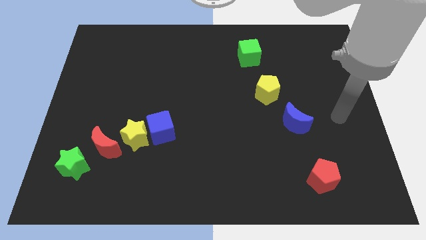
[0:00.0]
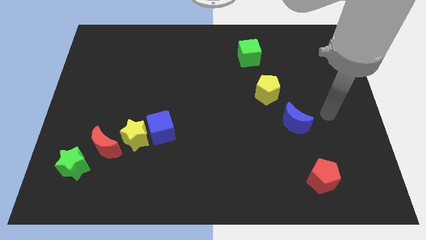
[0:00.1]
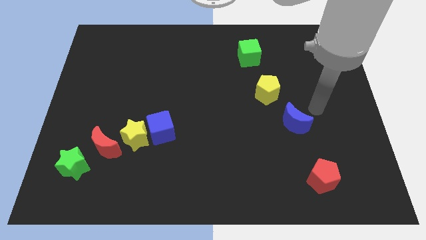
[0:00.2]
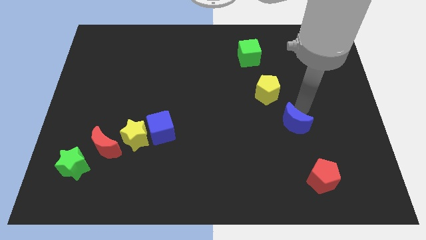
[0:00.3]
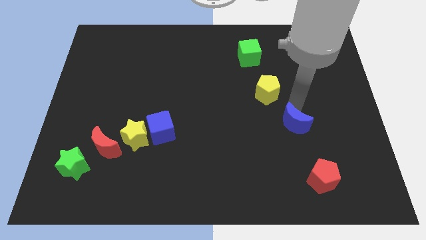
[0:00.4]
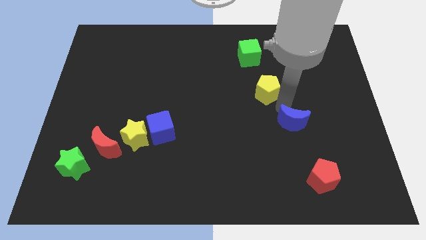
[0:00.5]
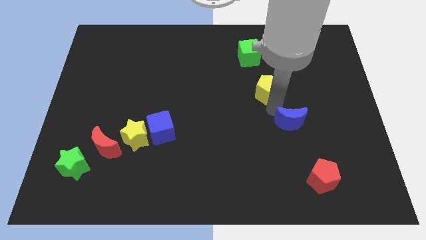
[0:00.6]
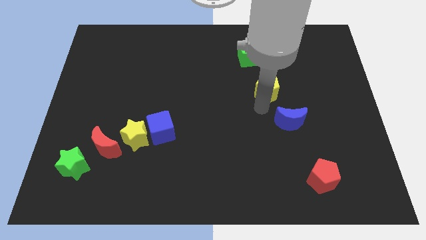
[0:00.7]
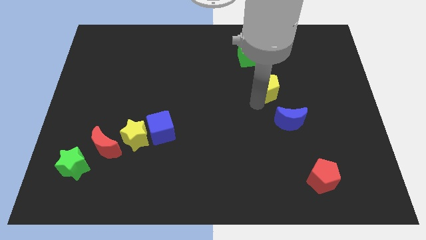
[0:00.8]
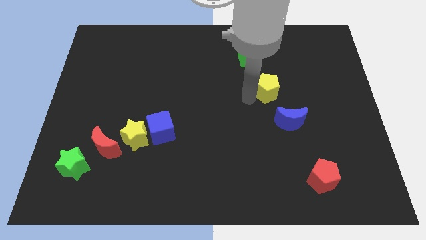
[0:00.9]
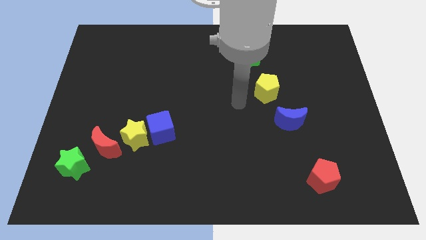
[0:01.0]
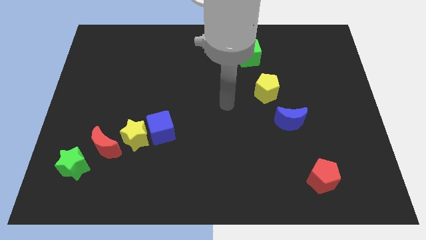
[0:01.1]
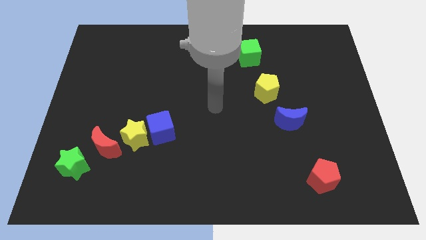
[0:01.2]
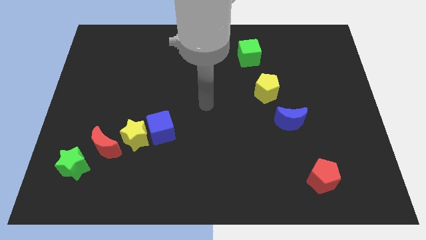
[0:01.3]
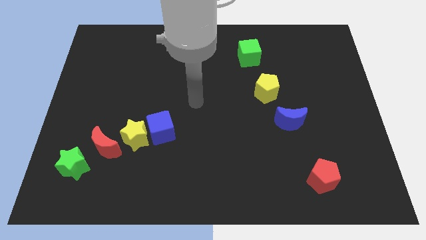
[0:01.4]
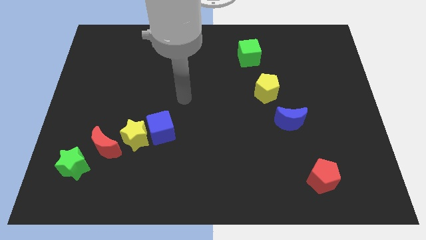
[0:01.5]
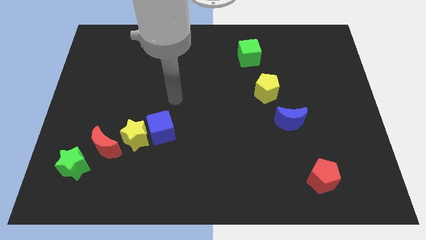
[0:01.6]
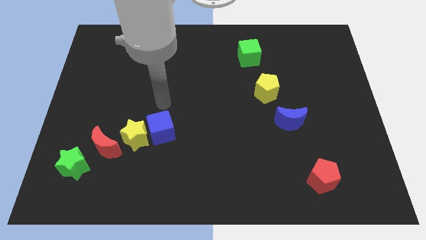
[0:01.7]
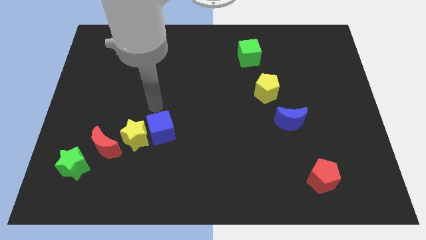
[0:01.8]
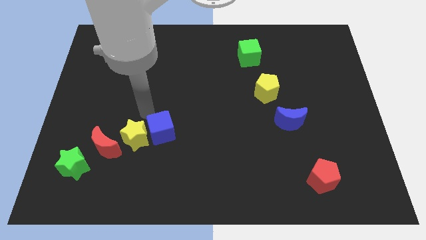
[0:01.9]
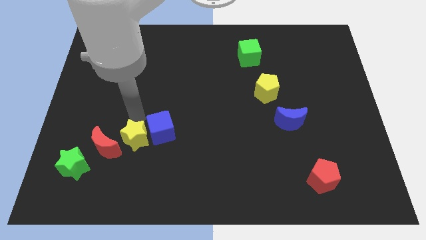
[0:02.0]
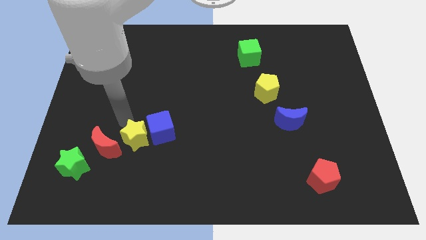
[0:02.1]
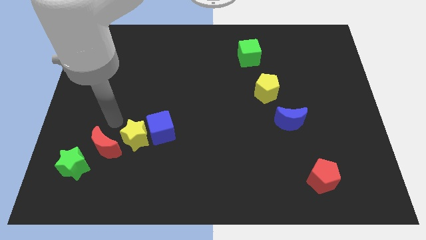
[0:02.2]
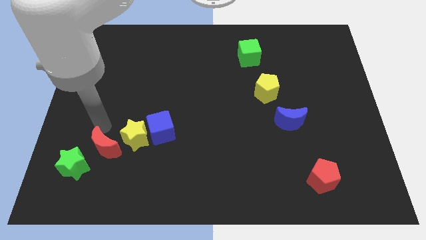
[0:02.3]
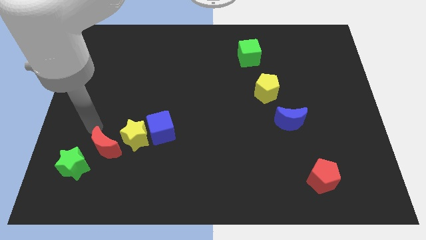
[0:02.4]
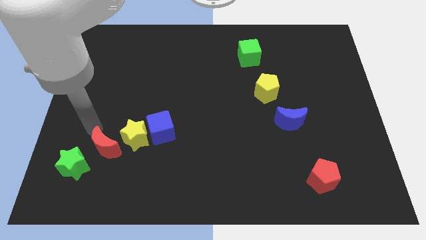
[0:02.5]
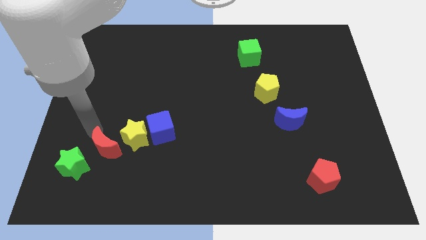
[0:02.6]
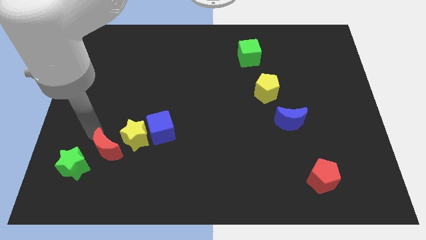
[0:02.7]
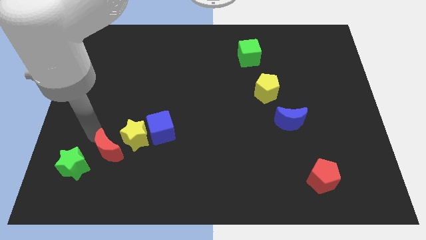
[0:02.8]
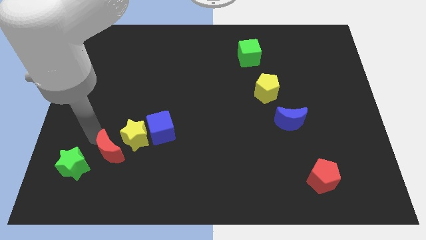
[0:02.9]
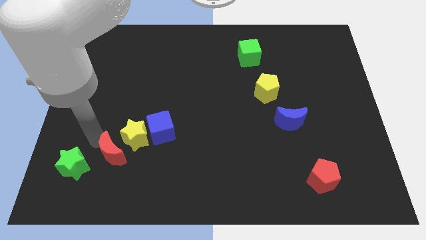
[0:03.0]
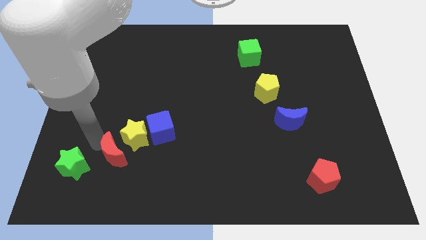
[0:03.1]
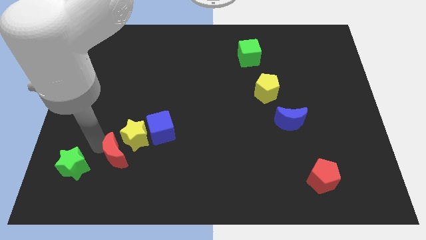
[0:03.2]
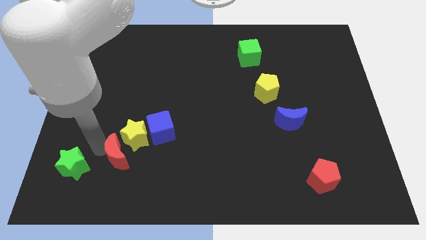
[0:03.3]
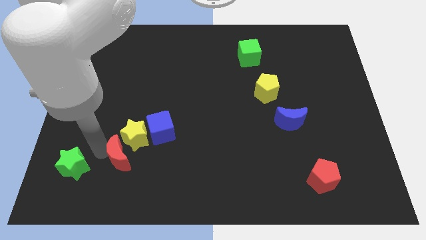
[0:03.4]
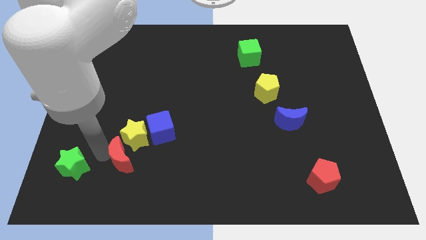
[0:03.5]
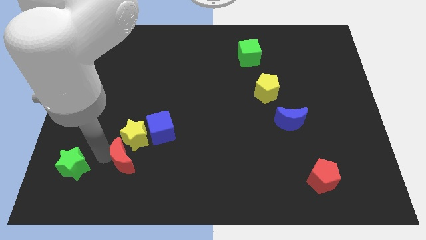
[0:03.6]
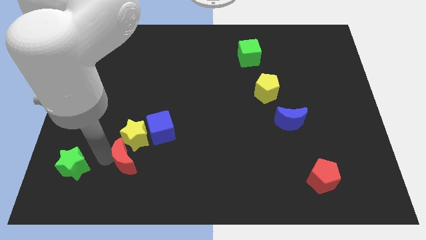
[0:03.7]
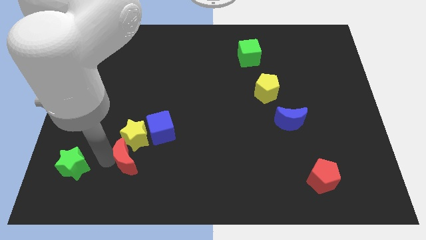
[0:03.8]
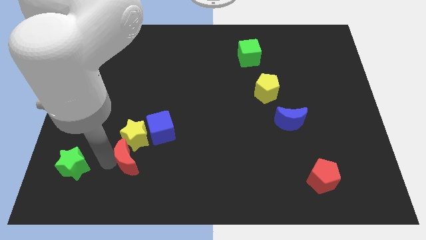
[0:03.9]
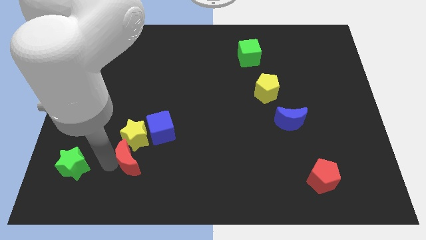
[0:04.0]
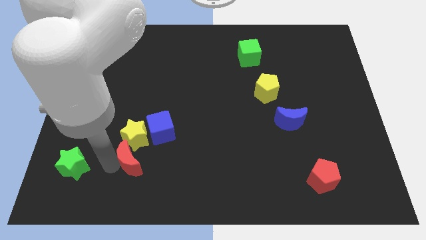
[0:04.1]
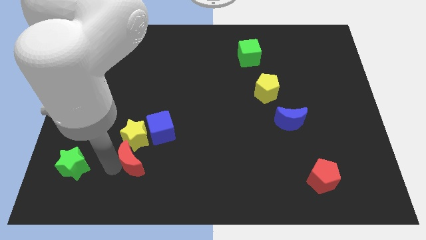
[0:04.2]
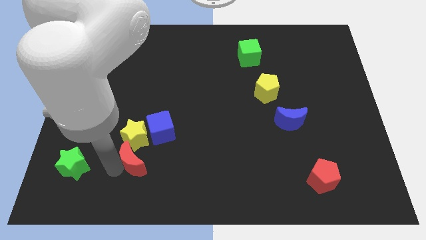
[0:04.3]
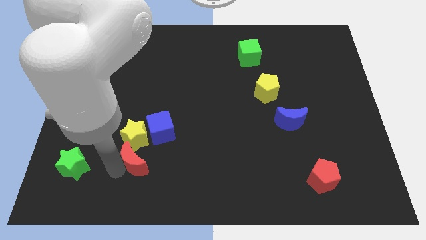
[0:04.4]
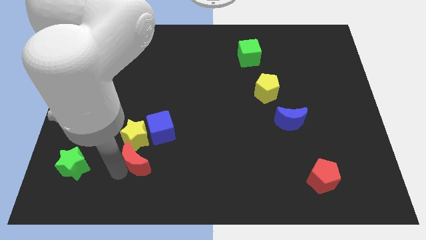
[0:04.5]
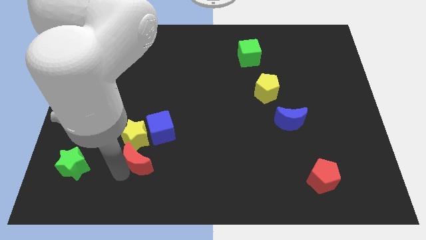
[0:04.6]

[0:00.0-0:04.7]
move the red moon right a little bit

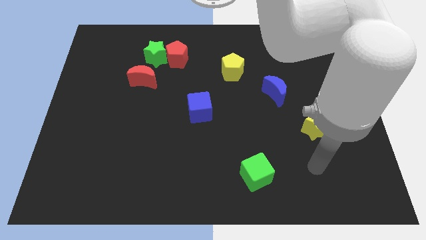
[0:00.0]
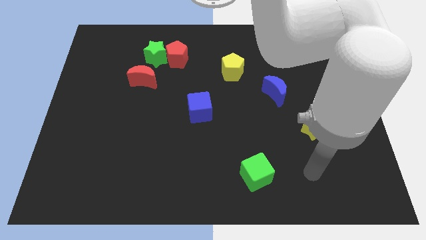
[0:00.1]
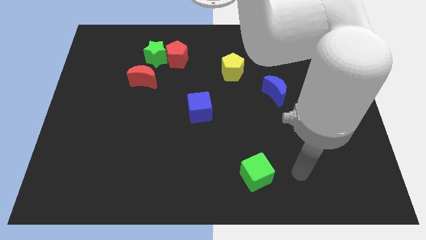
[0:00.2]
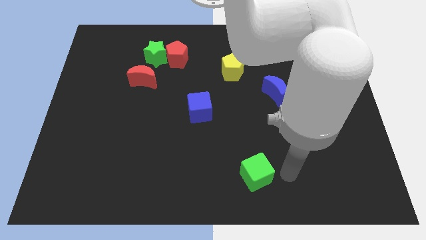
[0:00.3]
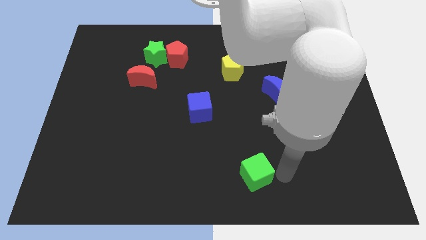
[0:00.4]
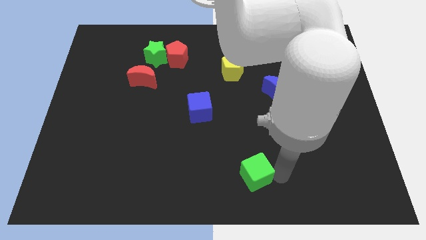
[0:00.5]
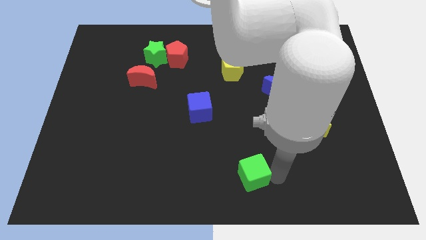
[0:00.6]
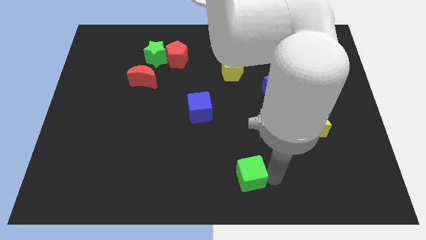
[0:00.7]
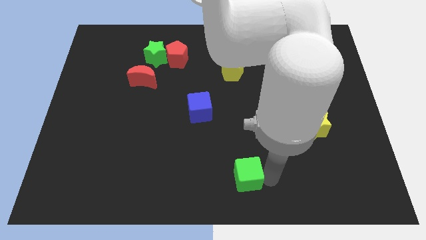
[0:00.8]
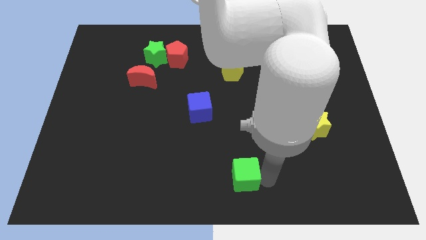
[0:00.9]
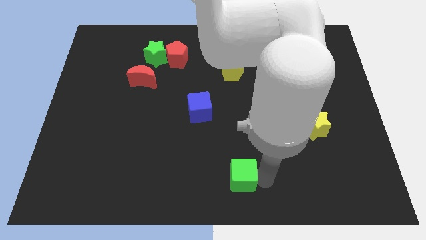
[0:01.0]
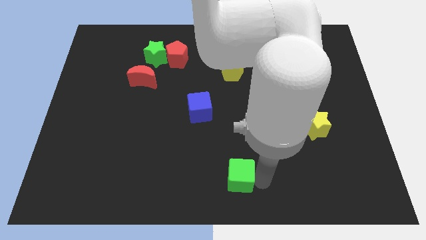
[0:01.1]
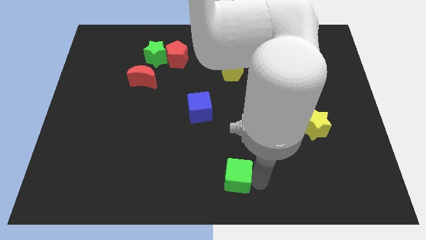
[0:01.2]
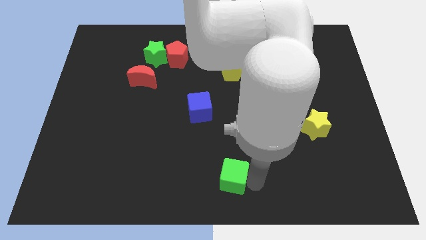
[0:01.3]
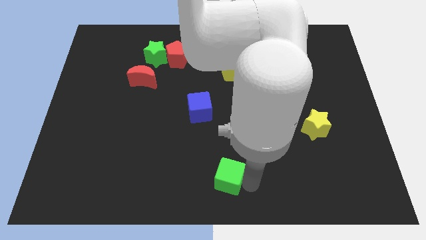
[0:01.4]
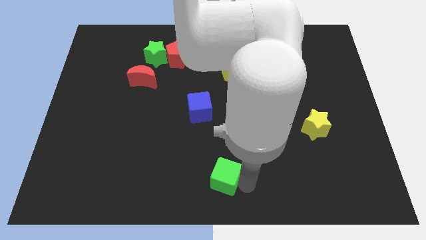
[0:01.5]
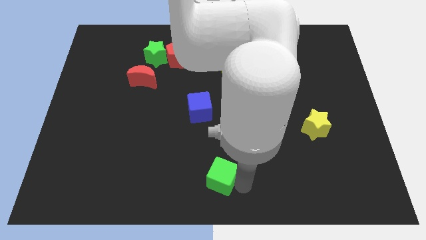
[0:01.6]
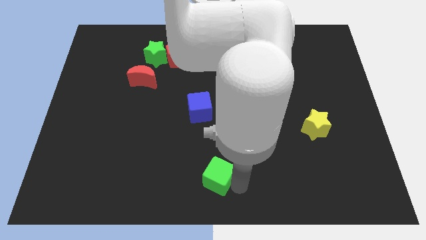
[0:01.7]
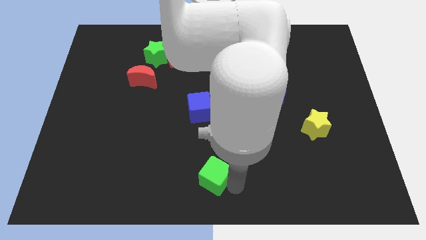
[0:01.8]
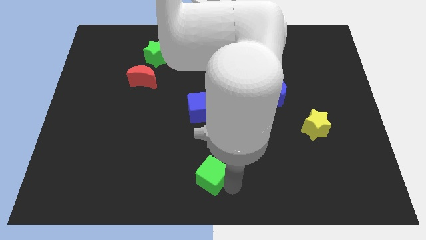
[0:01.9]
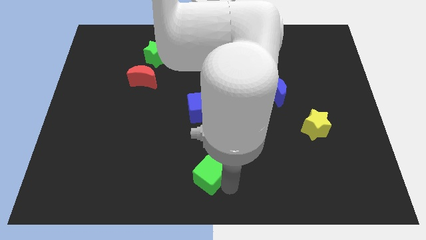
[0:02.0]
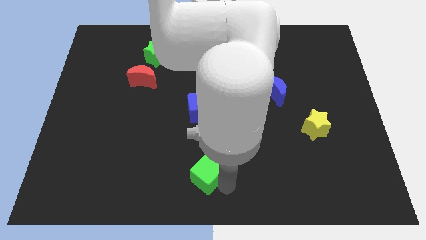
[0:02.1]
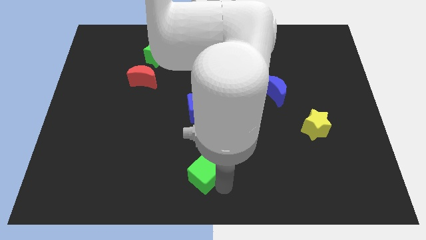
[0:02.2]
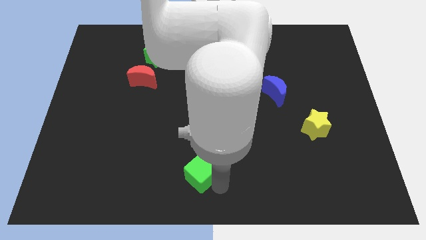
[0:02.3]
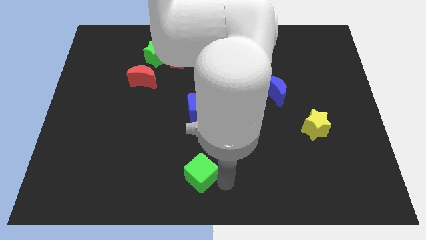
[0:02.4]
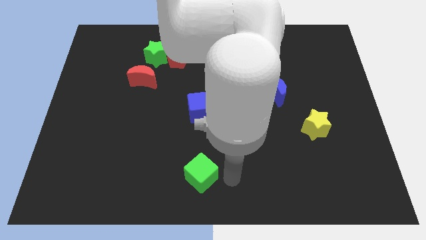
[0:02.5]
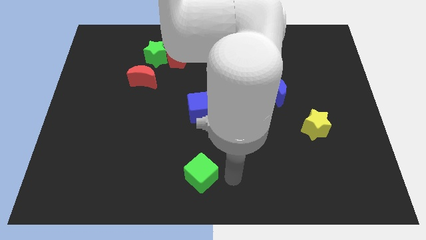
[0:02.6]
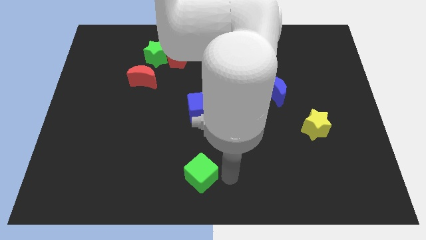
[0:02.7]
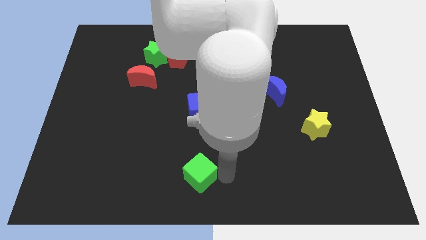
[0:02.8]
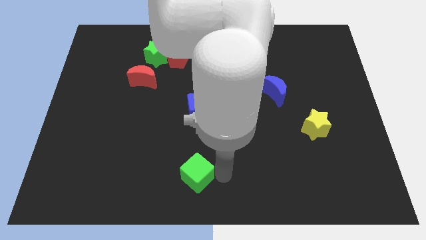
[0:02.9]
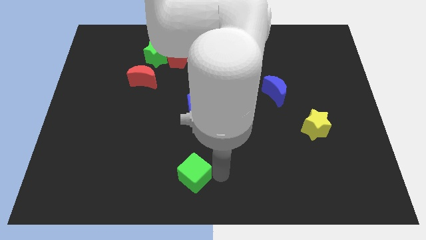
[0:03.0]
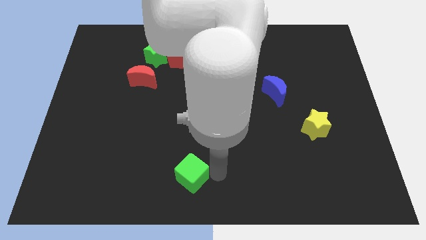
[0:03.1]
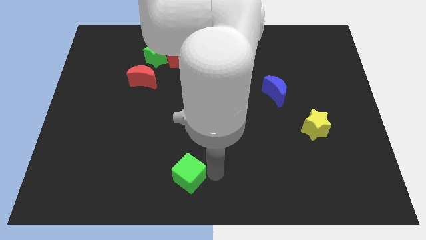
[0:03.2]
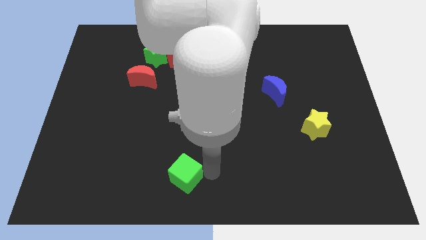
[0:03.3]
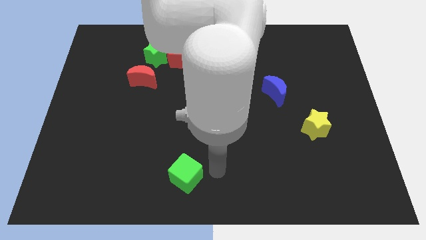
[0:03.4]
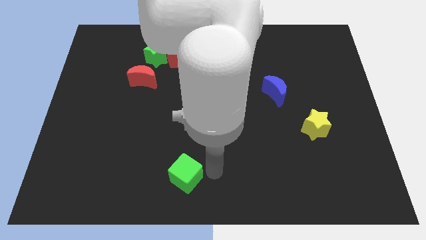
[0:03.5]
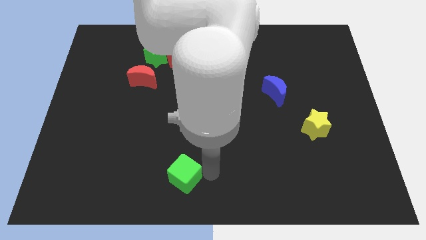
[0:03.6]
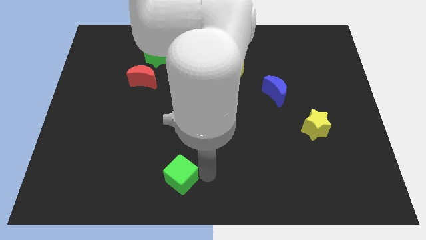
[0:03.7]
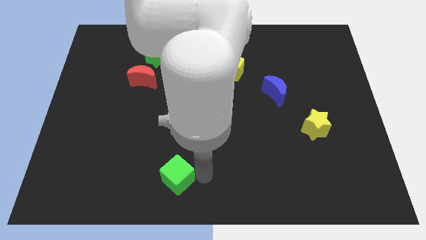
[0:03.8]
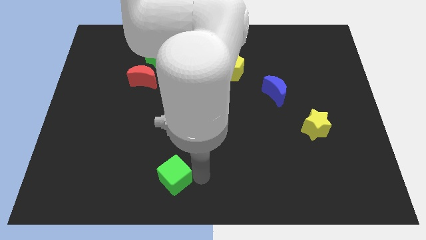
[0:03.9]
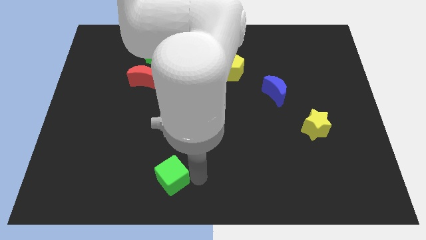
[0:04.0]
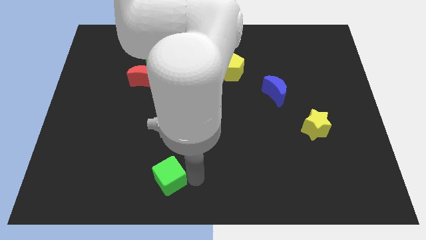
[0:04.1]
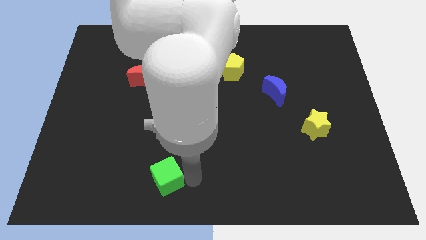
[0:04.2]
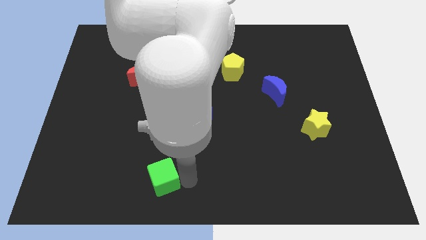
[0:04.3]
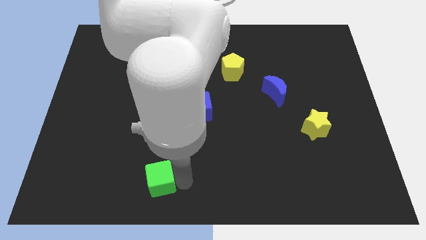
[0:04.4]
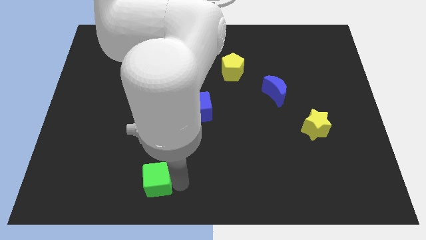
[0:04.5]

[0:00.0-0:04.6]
move the green cube left
